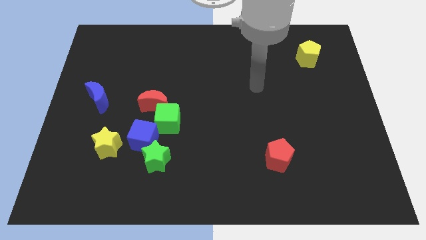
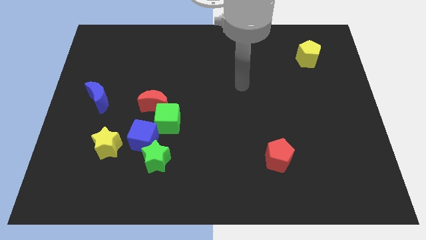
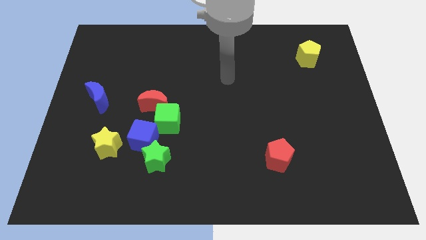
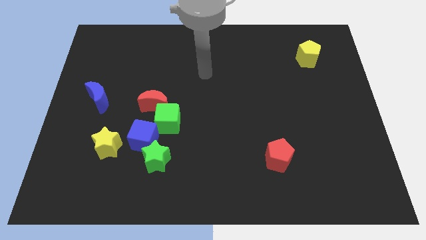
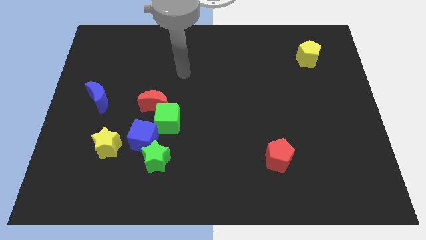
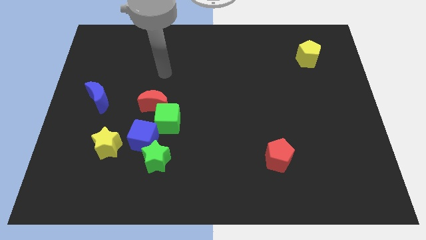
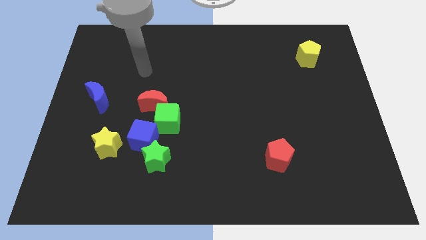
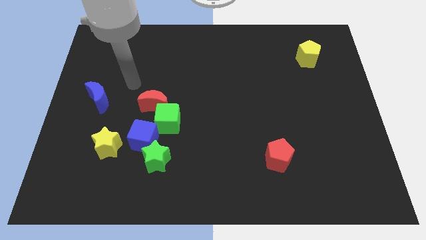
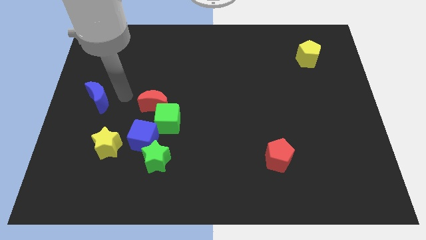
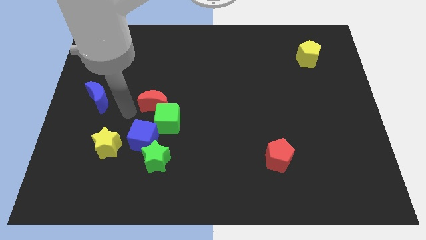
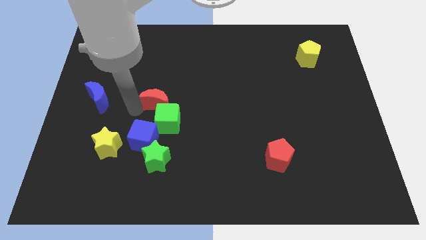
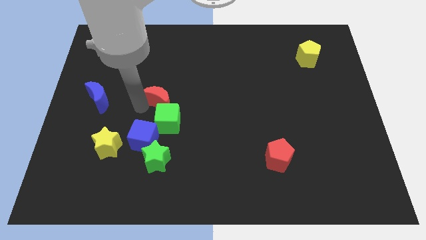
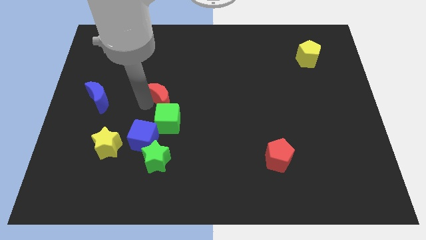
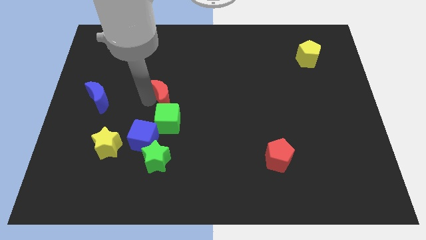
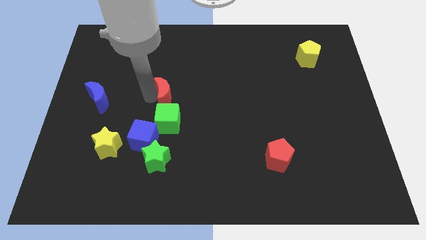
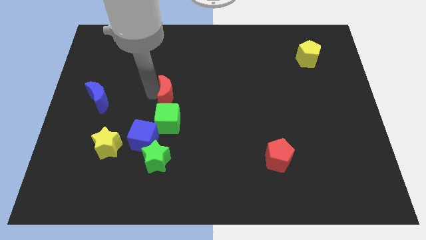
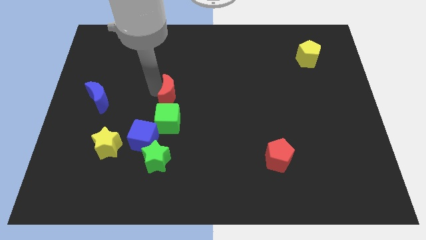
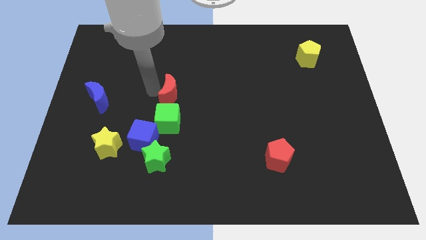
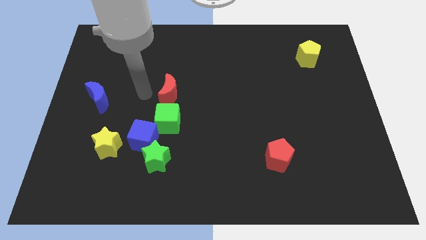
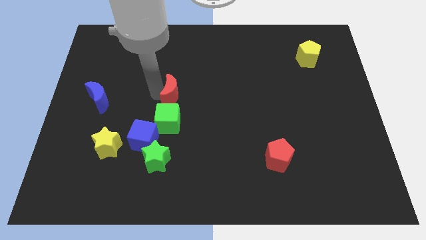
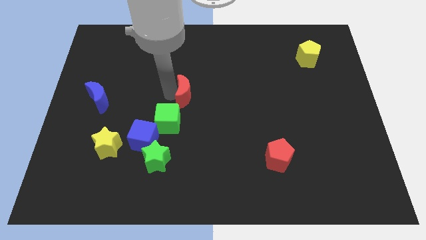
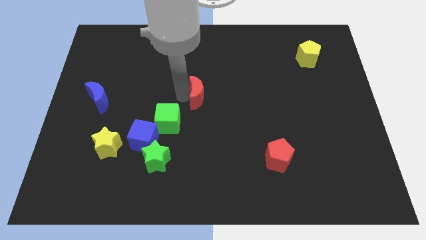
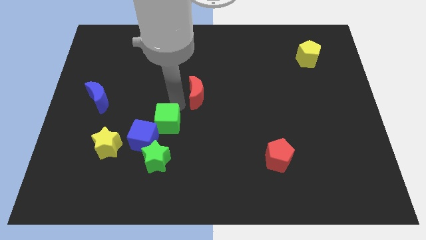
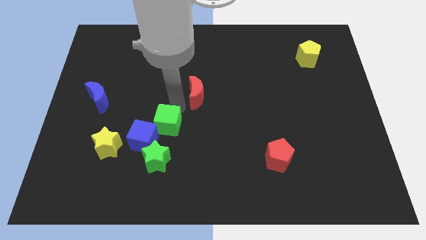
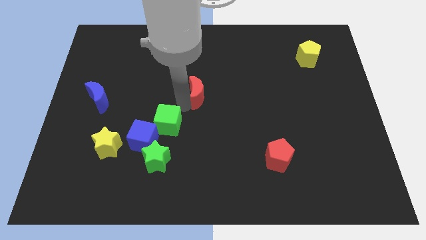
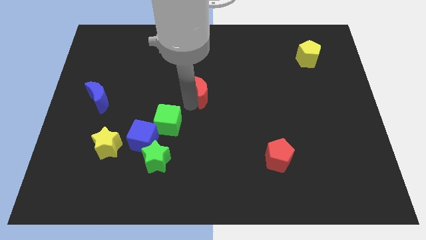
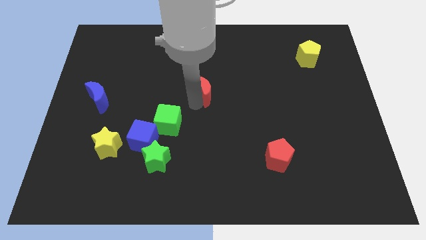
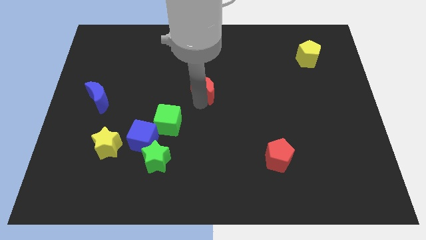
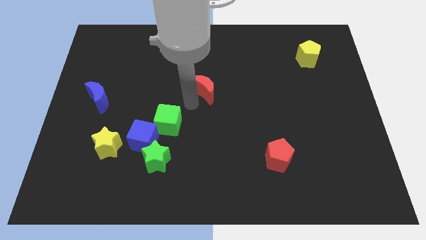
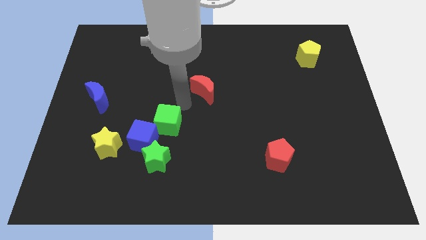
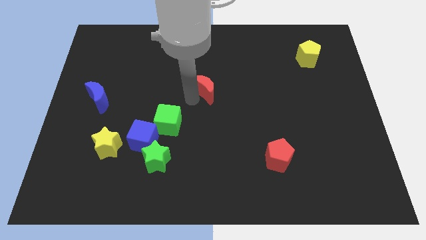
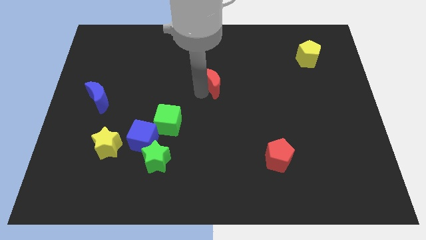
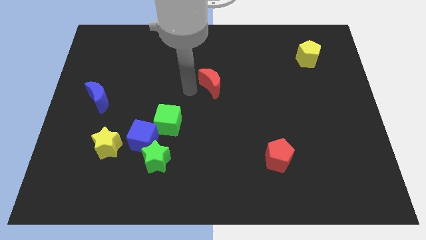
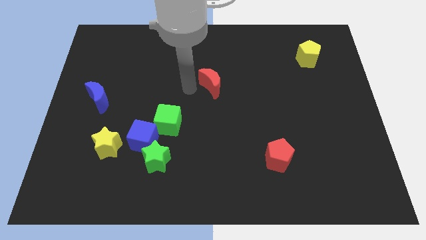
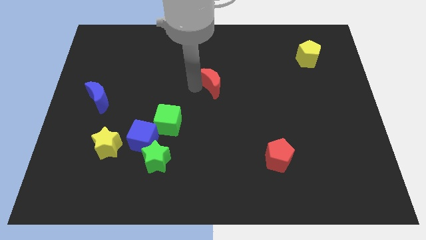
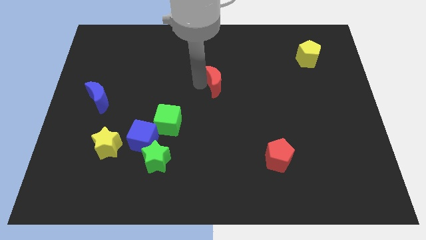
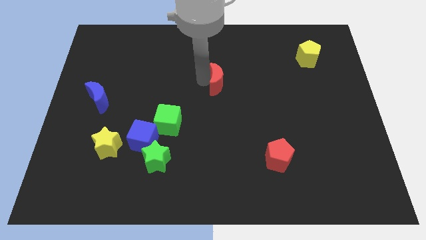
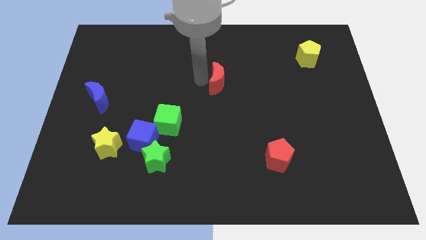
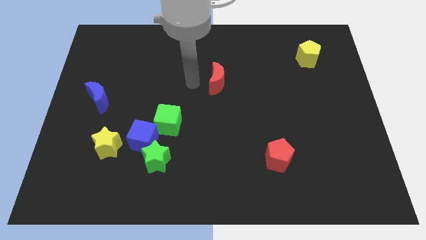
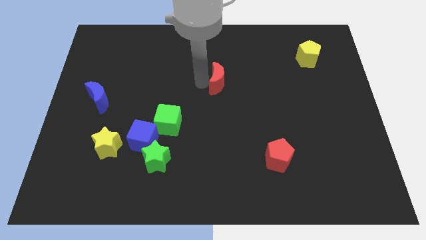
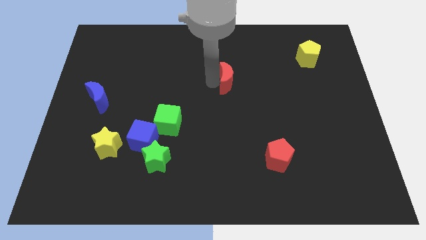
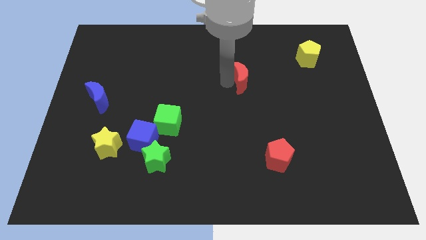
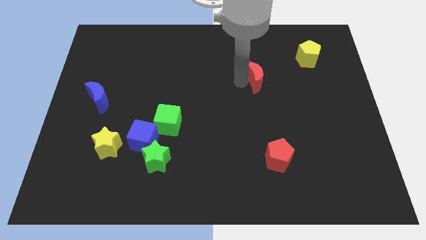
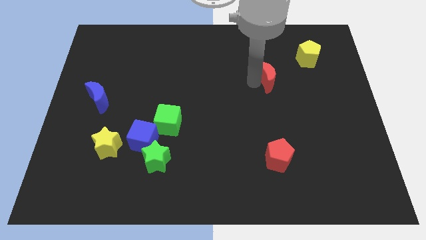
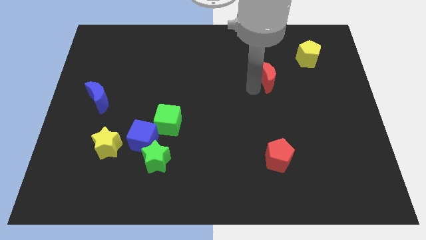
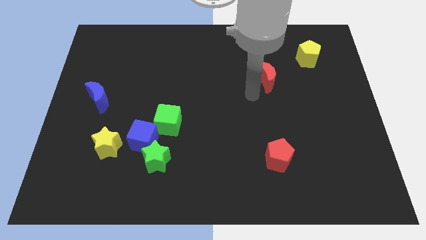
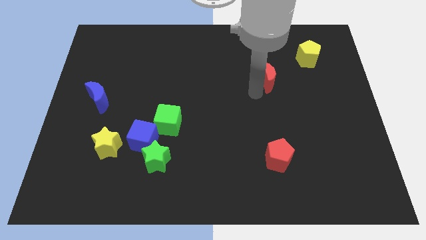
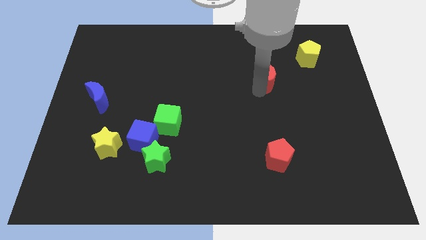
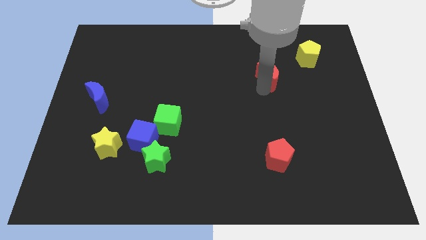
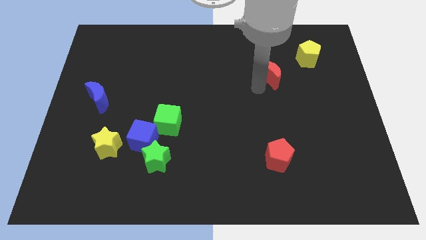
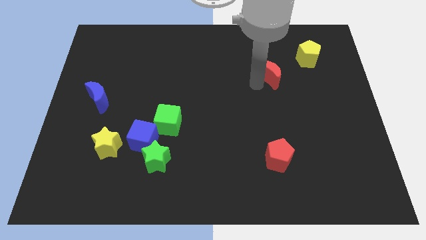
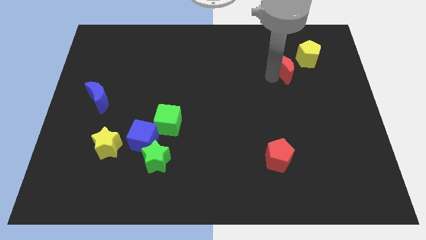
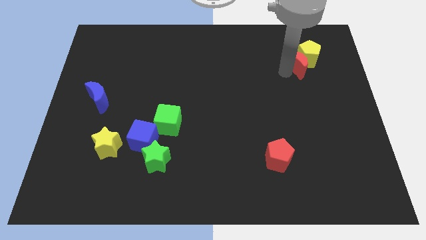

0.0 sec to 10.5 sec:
slide the red moon close to the yellow pentagon

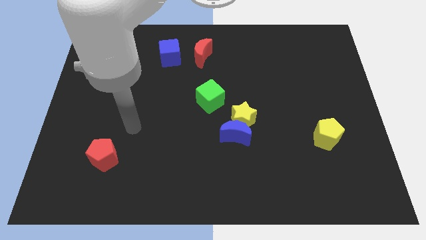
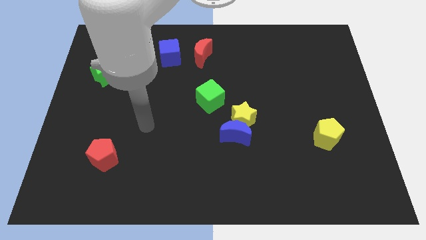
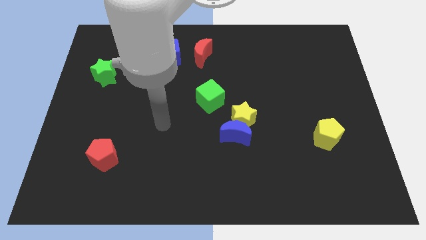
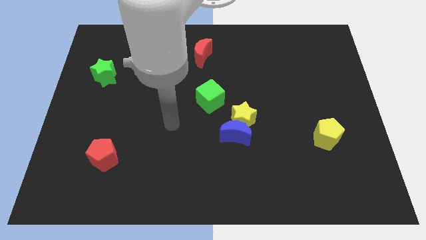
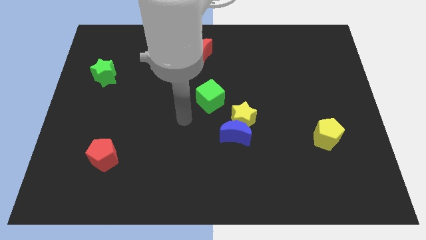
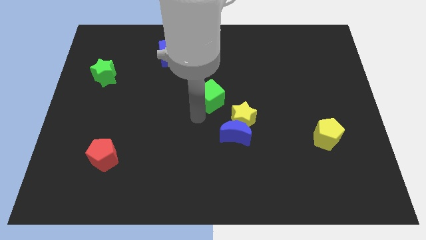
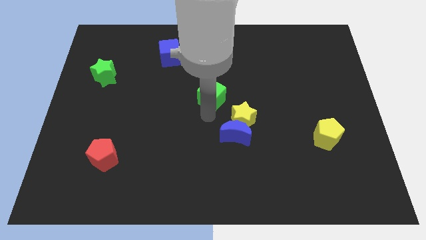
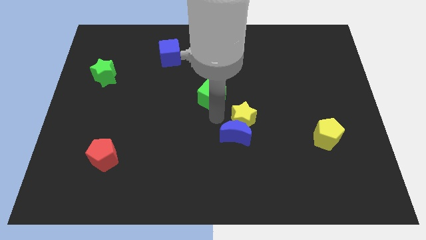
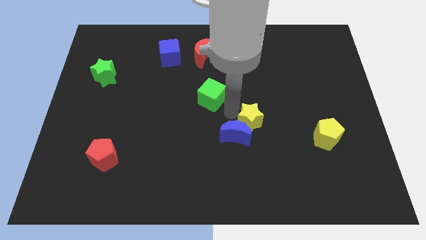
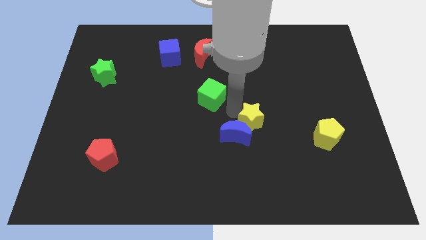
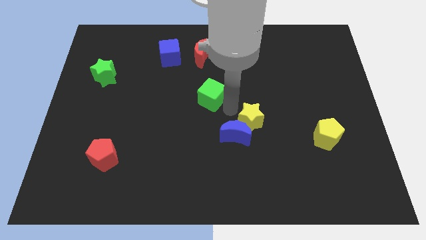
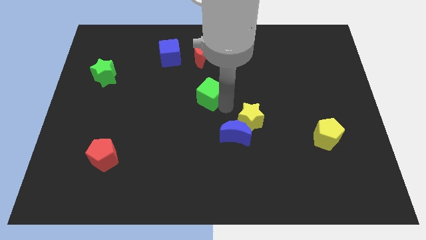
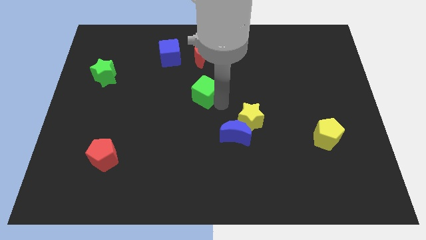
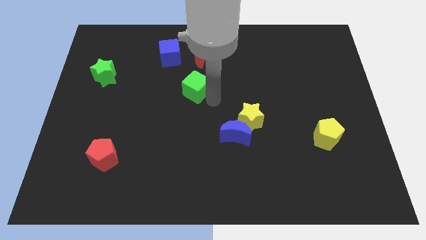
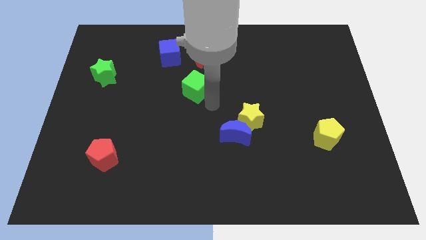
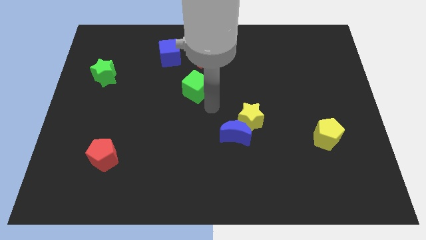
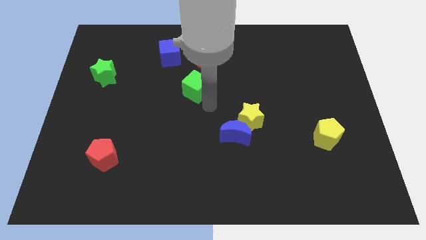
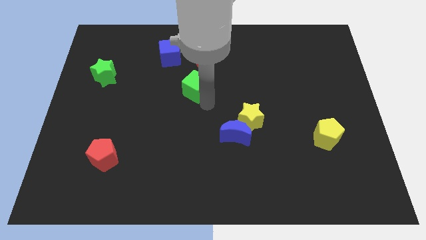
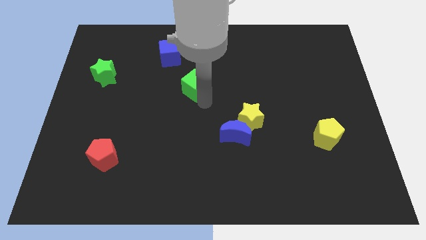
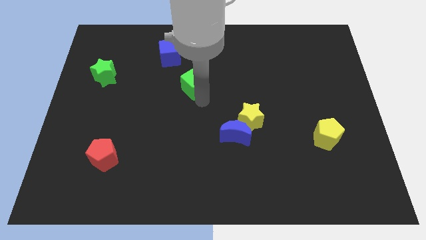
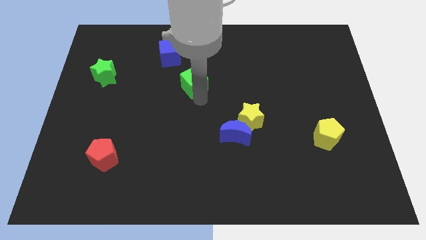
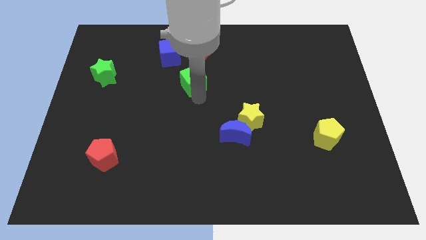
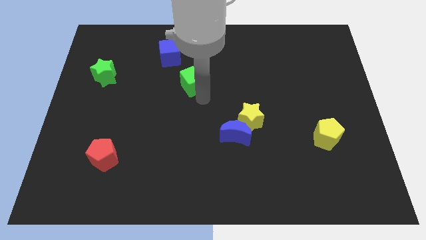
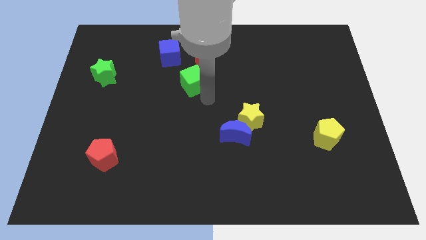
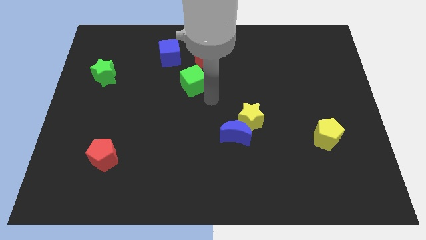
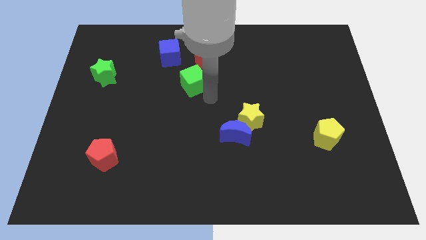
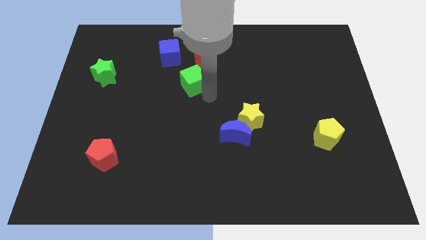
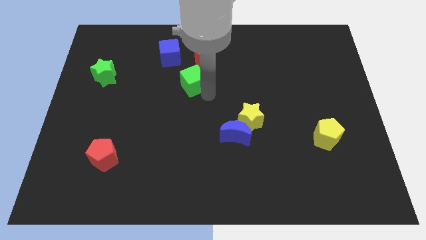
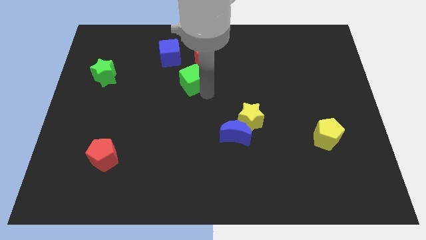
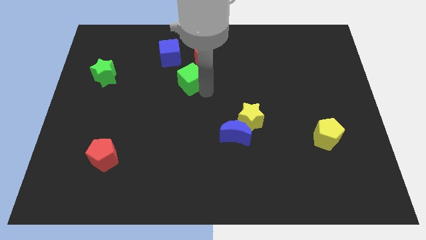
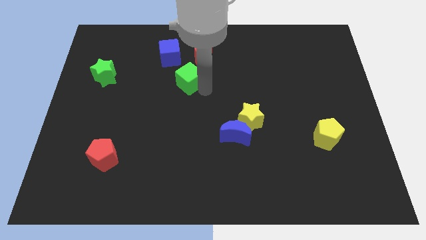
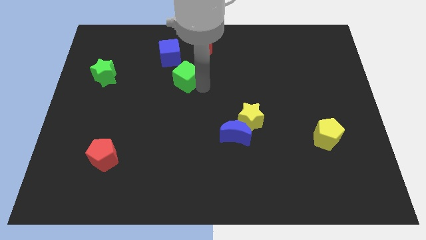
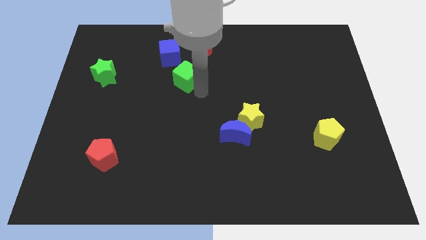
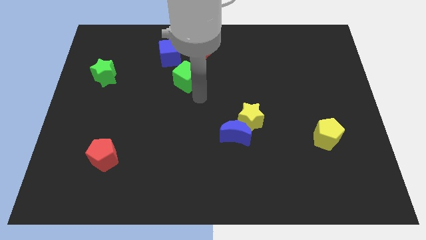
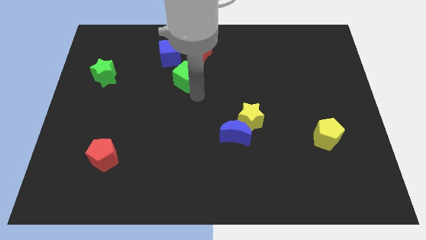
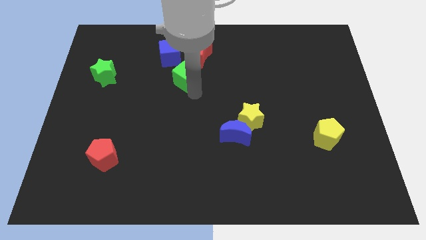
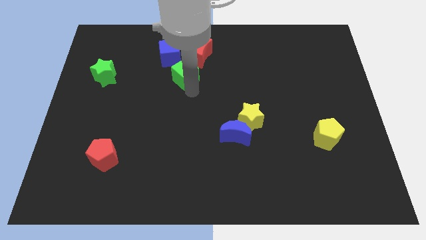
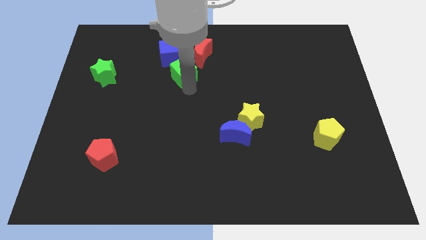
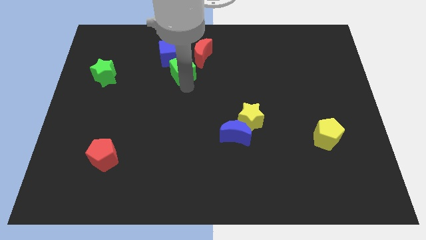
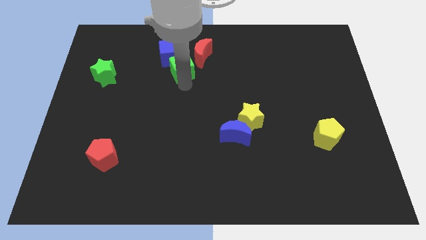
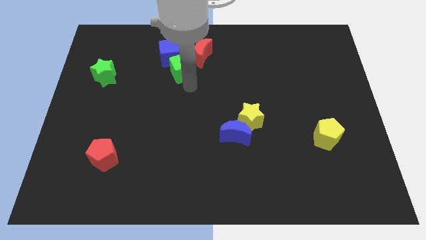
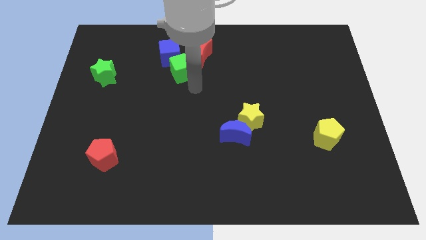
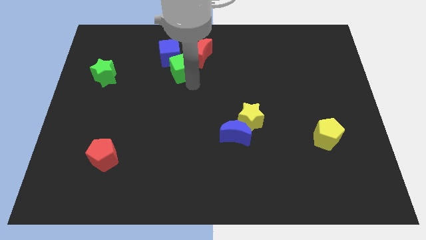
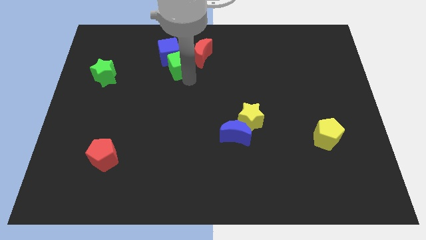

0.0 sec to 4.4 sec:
slide the green cube close to the blue cube
